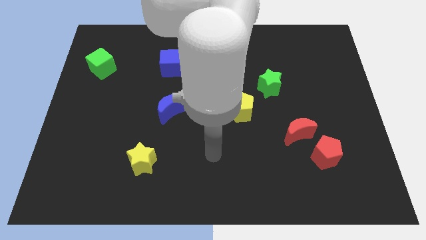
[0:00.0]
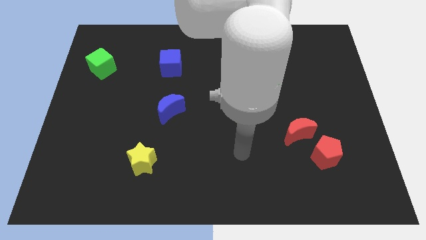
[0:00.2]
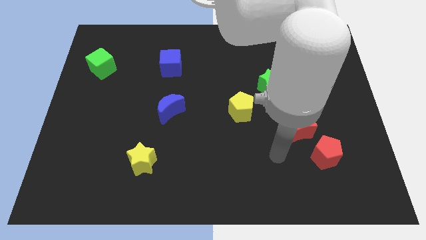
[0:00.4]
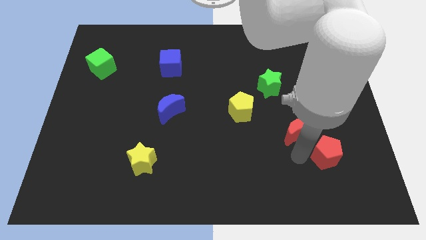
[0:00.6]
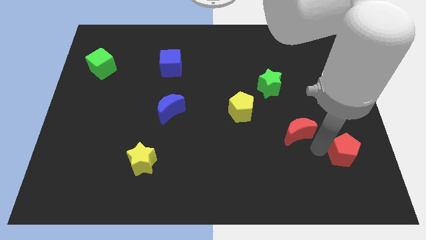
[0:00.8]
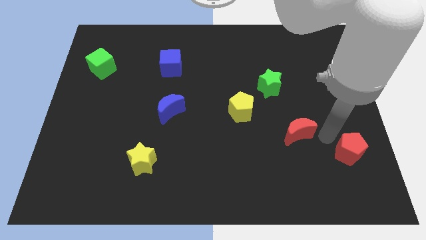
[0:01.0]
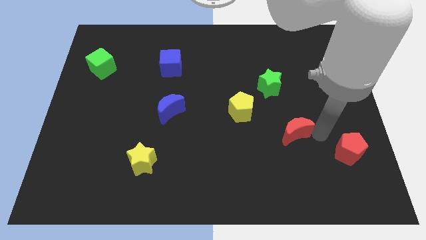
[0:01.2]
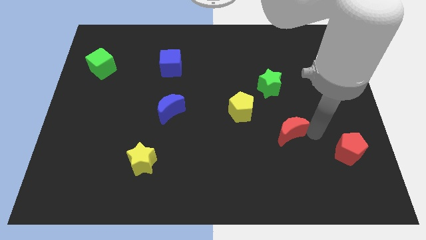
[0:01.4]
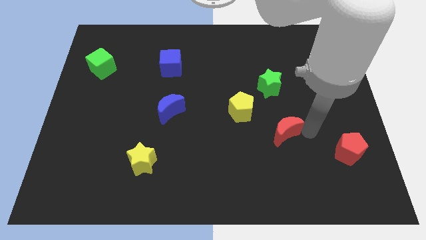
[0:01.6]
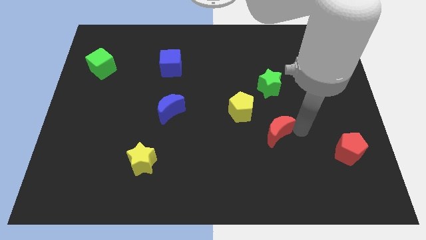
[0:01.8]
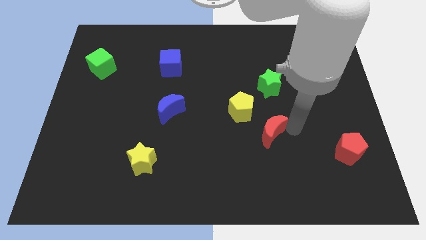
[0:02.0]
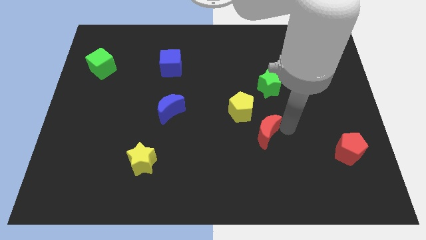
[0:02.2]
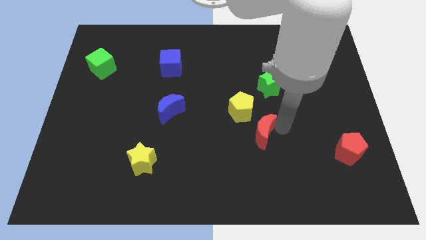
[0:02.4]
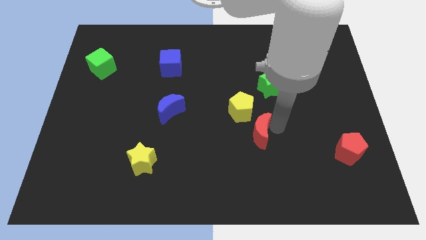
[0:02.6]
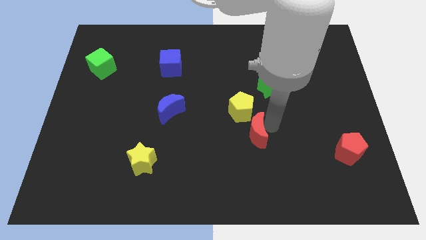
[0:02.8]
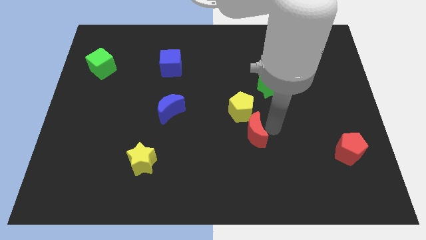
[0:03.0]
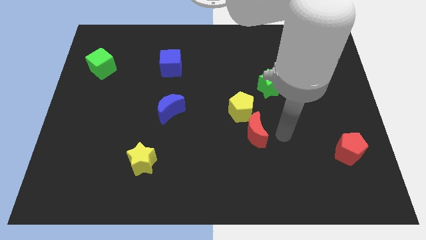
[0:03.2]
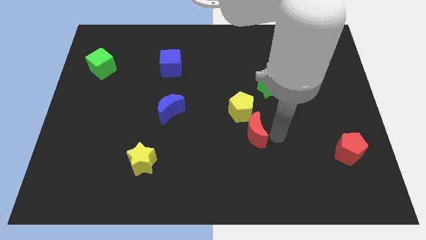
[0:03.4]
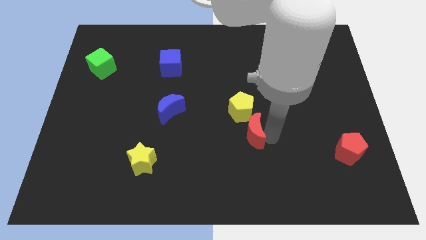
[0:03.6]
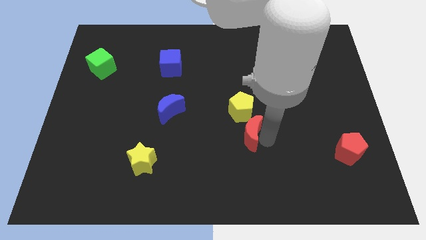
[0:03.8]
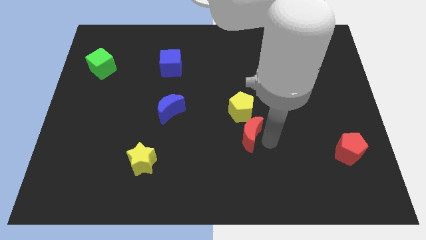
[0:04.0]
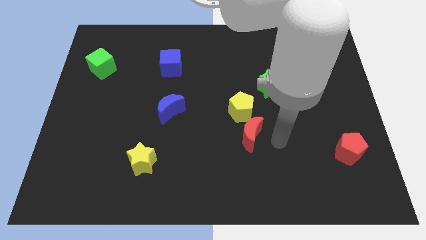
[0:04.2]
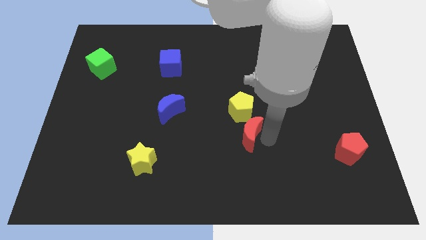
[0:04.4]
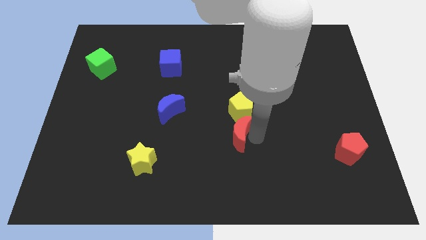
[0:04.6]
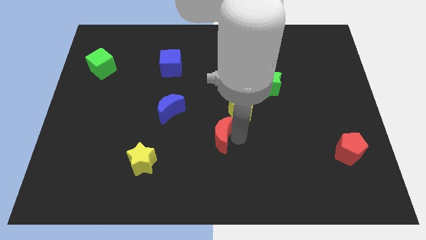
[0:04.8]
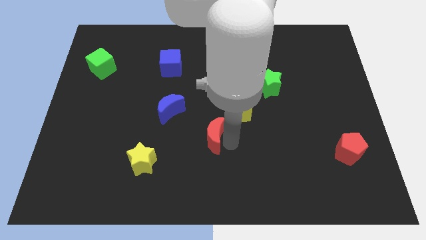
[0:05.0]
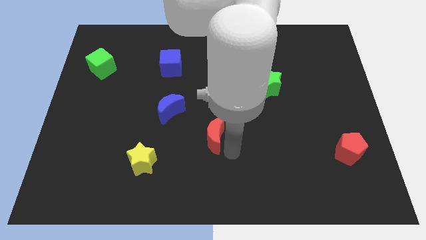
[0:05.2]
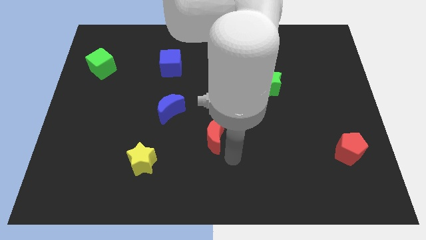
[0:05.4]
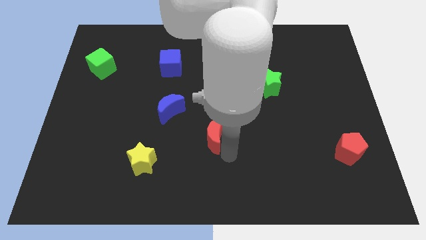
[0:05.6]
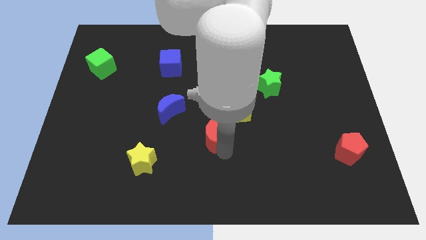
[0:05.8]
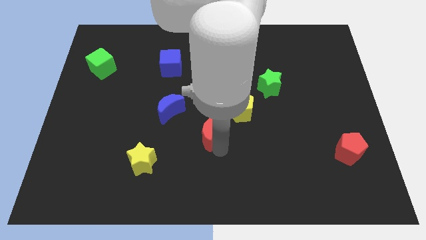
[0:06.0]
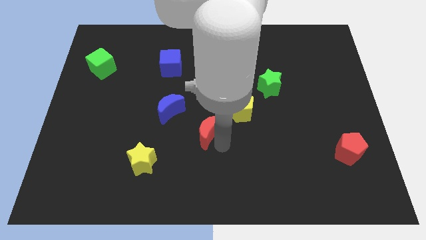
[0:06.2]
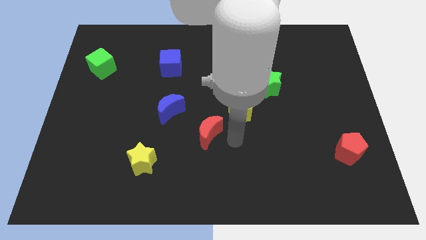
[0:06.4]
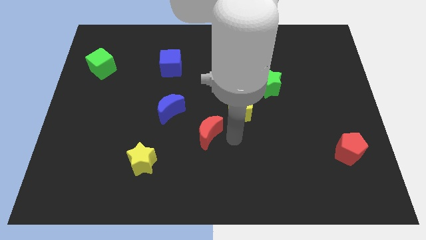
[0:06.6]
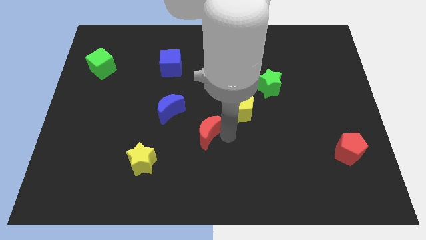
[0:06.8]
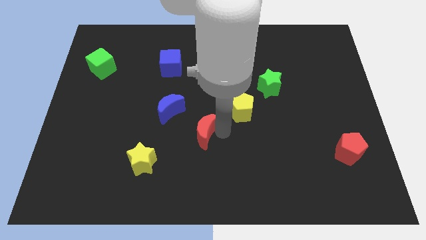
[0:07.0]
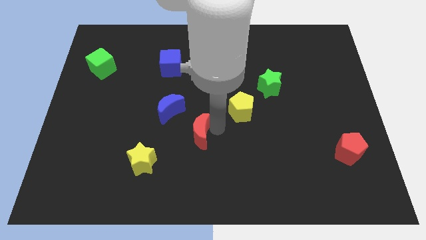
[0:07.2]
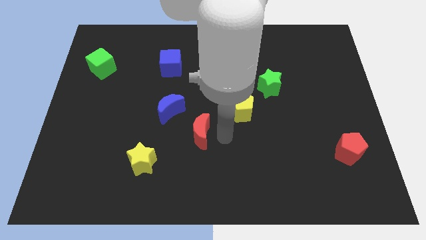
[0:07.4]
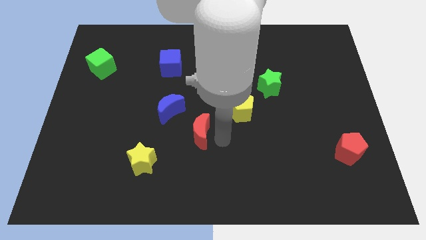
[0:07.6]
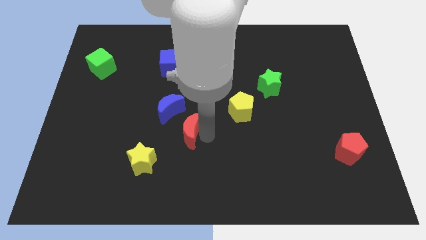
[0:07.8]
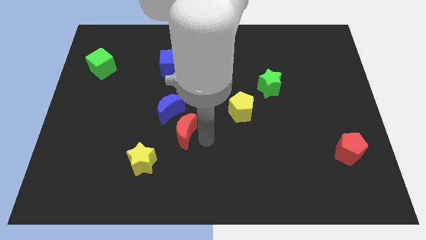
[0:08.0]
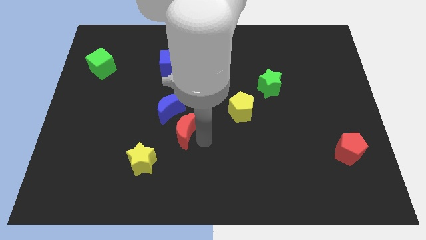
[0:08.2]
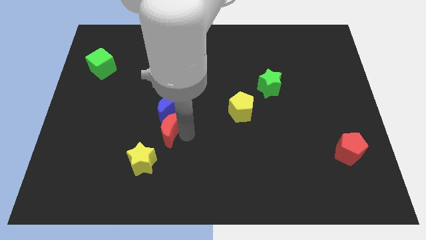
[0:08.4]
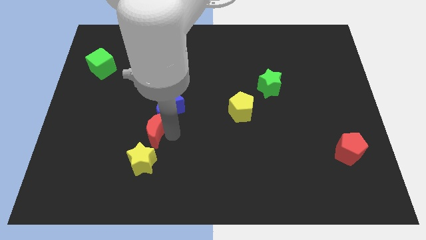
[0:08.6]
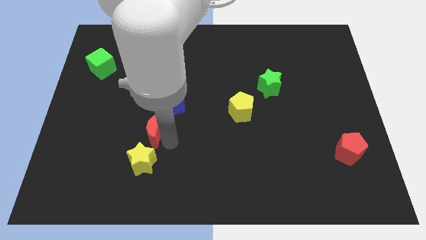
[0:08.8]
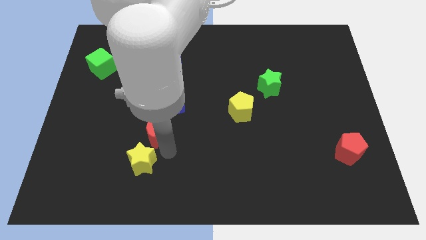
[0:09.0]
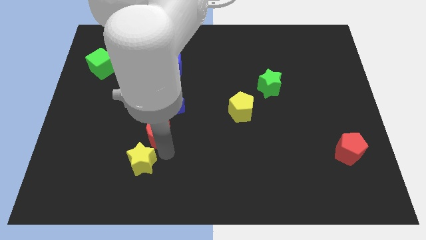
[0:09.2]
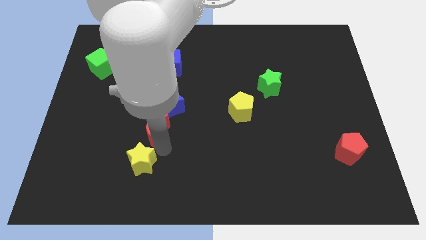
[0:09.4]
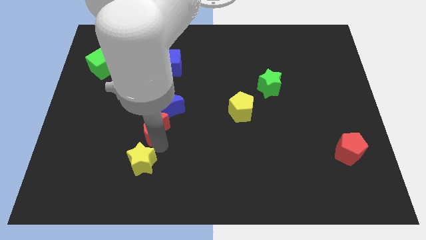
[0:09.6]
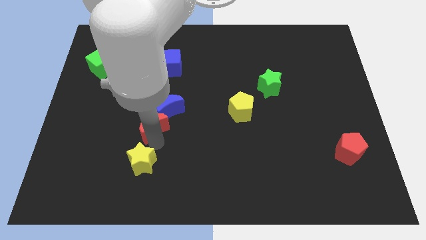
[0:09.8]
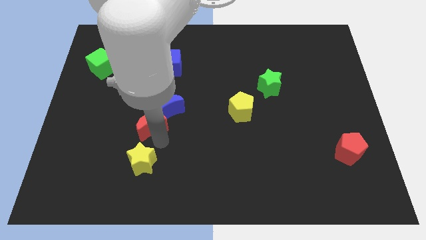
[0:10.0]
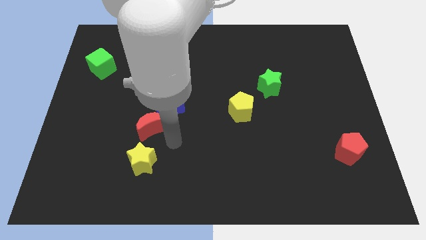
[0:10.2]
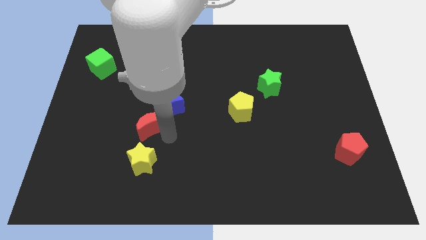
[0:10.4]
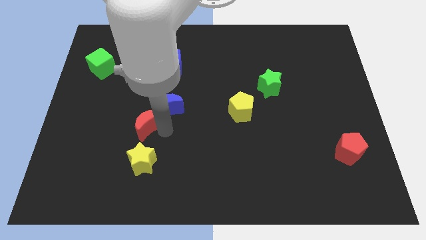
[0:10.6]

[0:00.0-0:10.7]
slide the red moon left of the blue moon

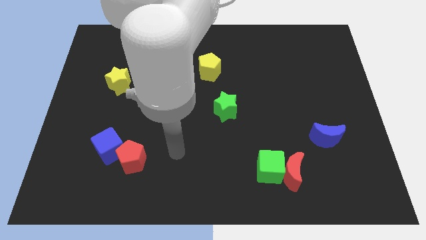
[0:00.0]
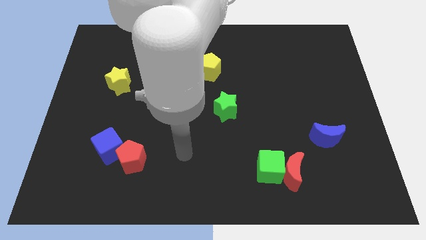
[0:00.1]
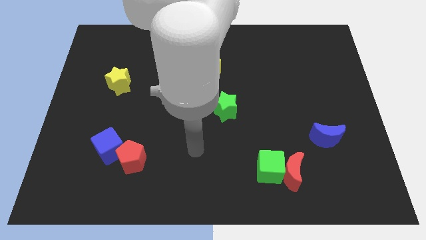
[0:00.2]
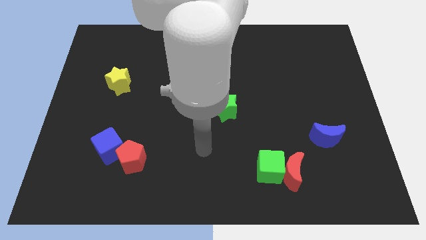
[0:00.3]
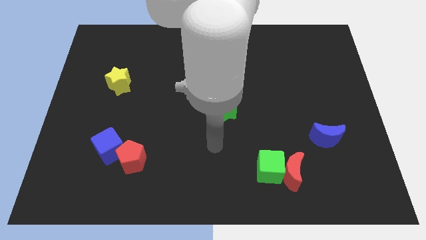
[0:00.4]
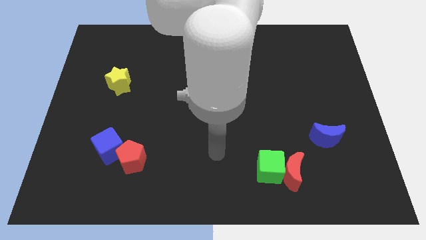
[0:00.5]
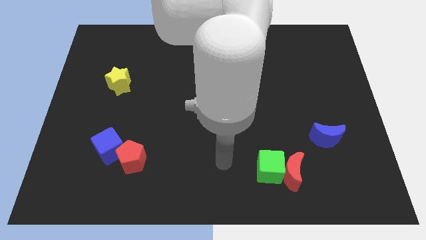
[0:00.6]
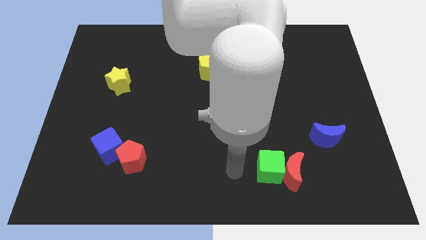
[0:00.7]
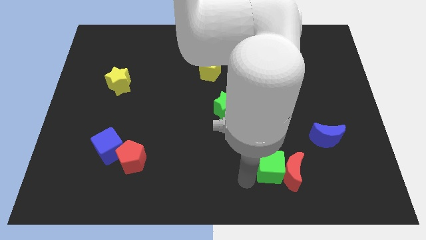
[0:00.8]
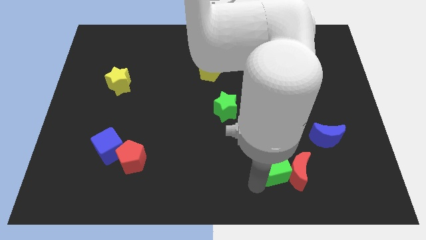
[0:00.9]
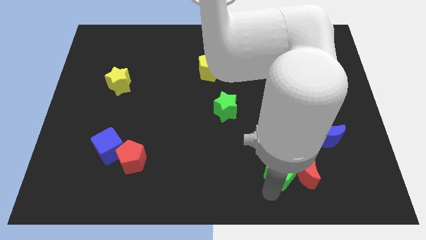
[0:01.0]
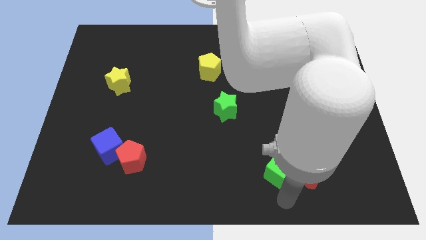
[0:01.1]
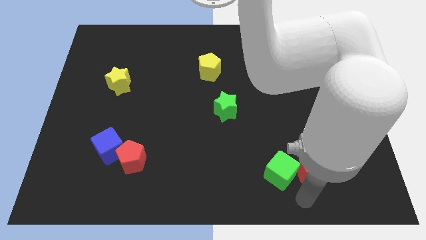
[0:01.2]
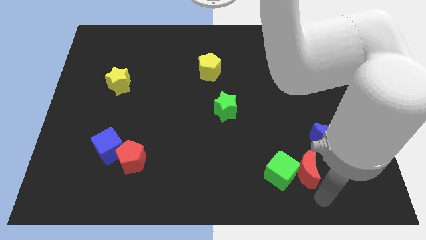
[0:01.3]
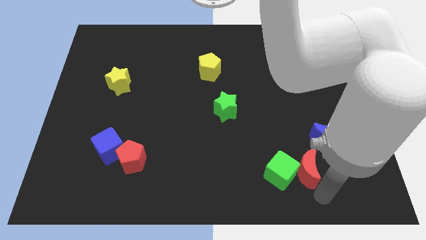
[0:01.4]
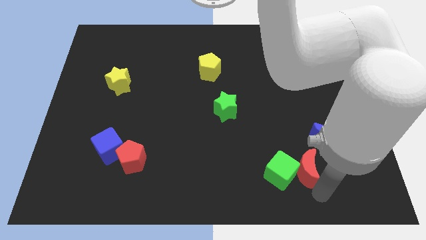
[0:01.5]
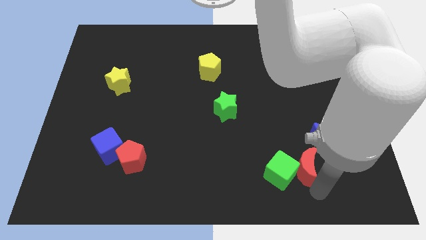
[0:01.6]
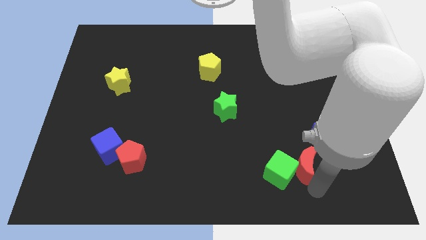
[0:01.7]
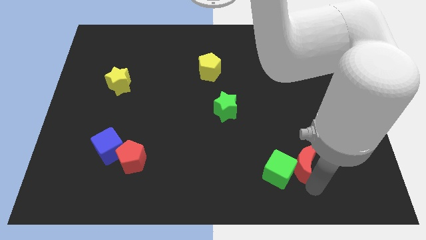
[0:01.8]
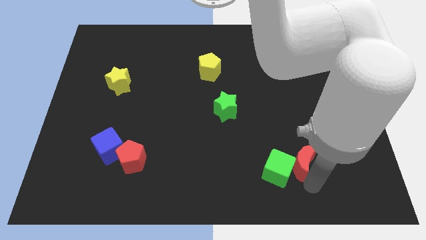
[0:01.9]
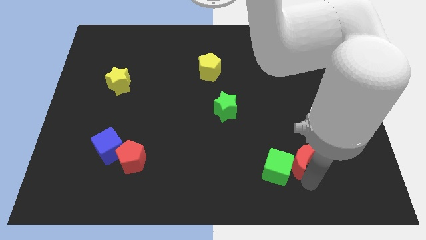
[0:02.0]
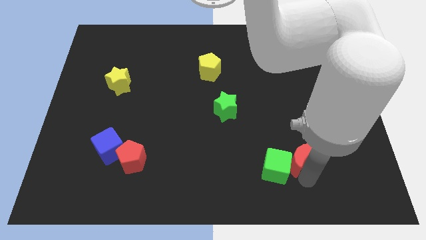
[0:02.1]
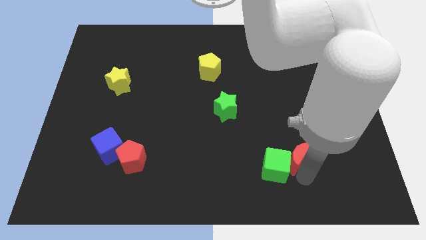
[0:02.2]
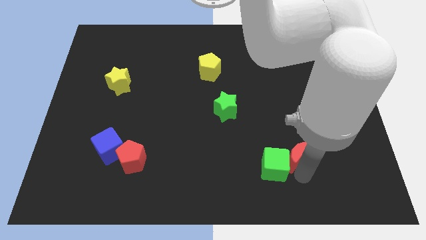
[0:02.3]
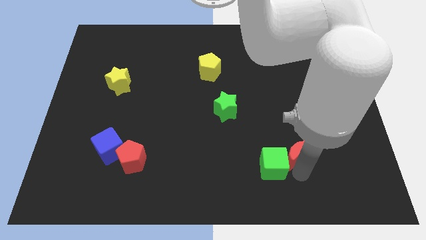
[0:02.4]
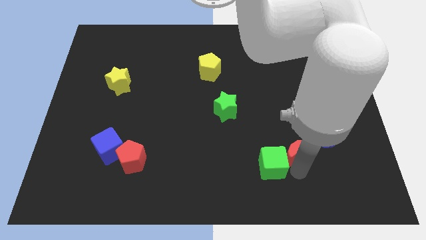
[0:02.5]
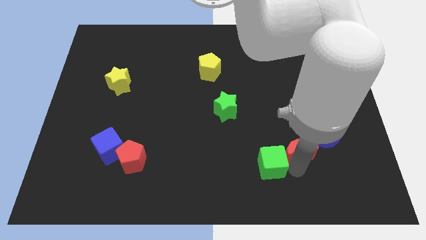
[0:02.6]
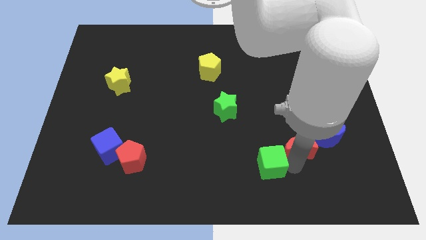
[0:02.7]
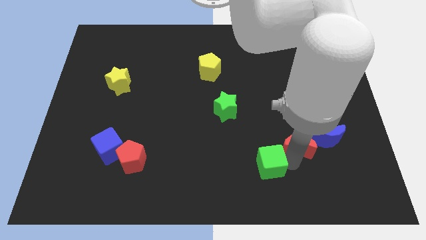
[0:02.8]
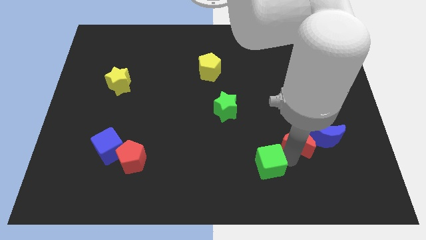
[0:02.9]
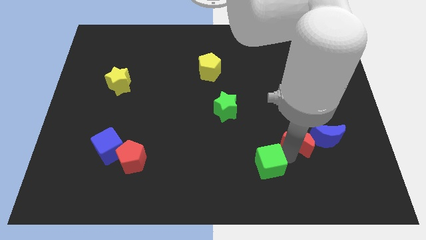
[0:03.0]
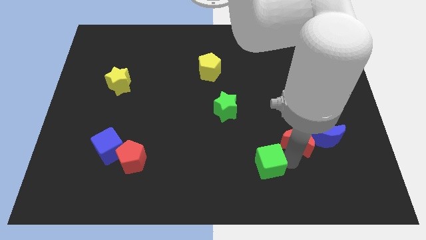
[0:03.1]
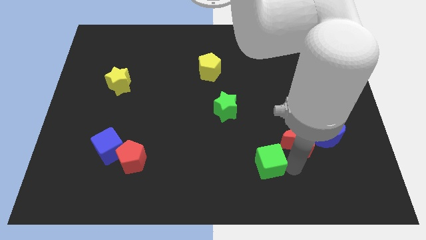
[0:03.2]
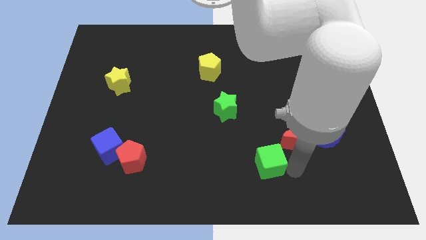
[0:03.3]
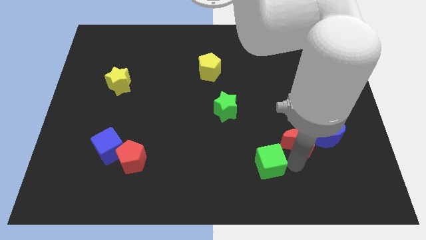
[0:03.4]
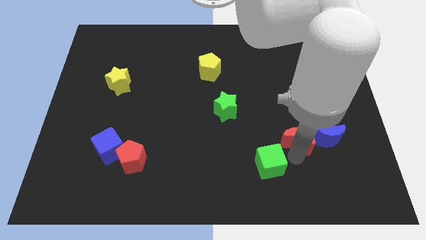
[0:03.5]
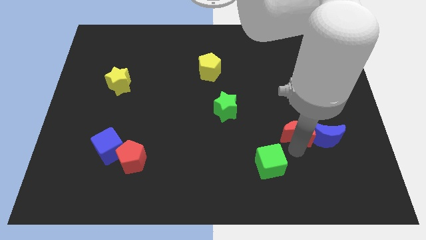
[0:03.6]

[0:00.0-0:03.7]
put the red moon to the top left of the blue moon
